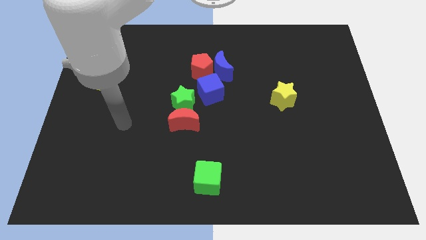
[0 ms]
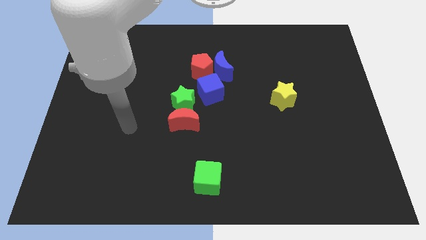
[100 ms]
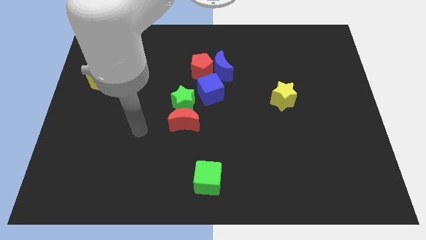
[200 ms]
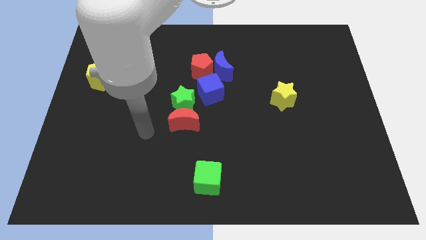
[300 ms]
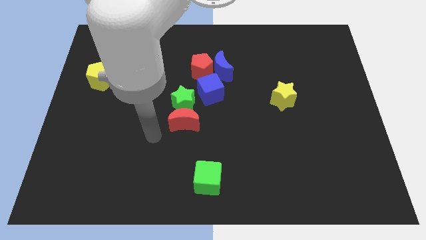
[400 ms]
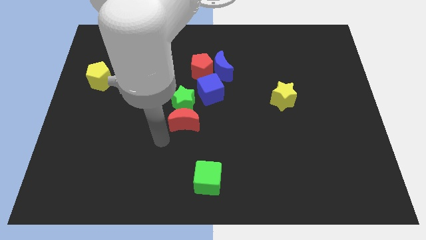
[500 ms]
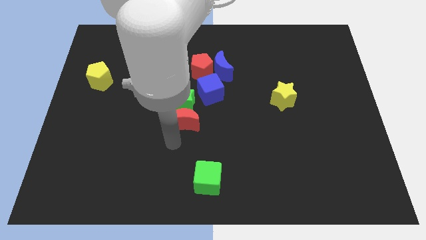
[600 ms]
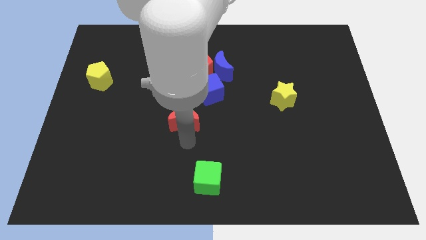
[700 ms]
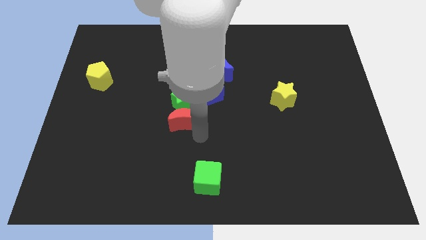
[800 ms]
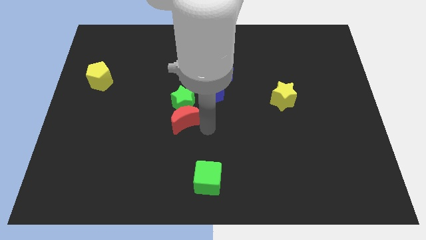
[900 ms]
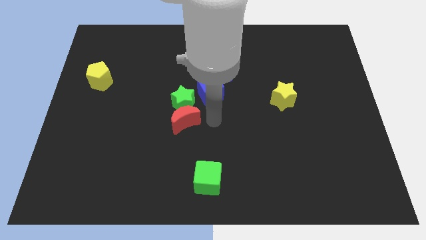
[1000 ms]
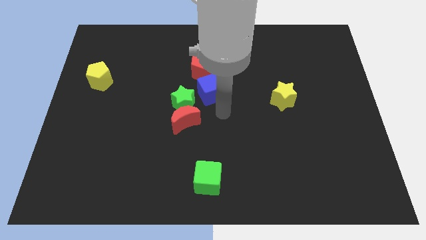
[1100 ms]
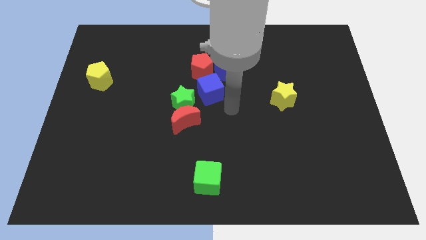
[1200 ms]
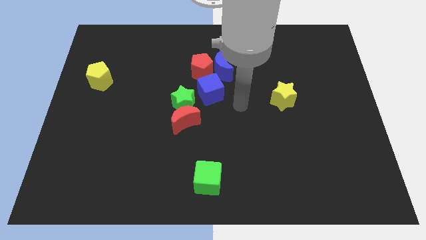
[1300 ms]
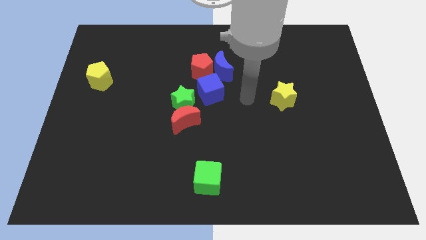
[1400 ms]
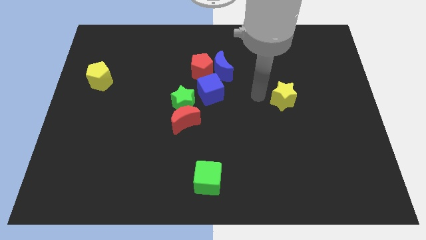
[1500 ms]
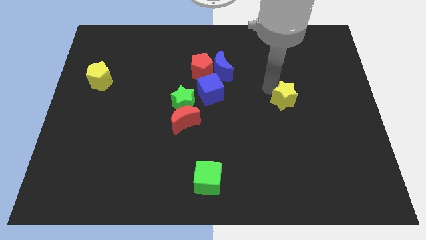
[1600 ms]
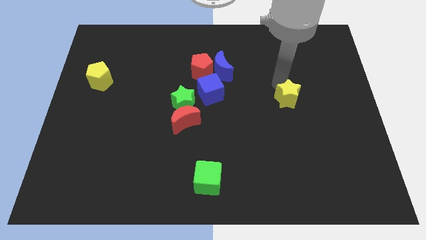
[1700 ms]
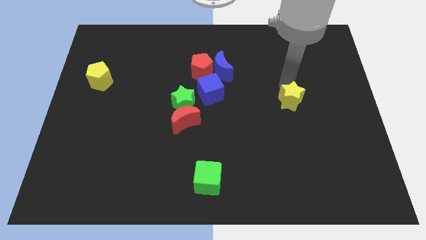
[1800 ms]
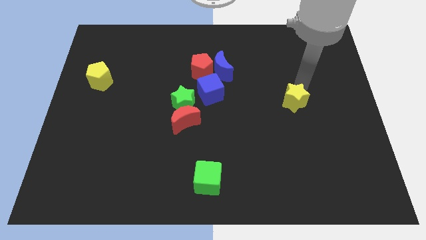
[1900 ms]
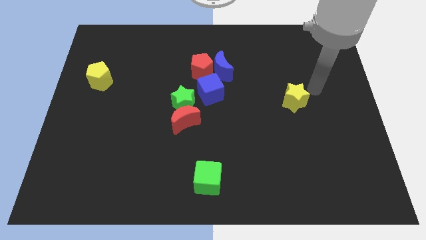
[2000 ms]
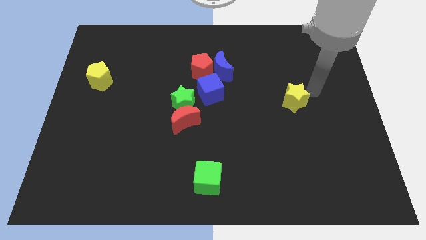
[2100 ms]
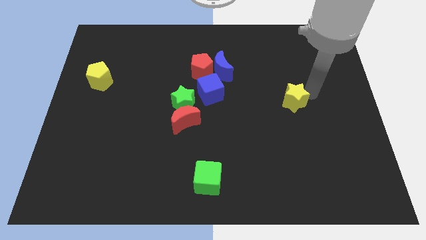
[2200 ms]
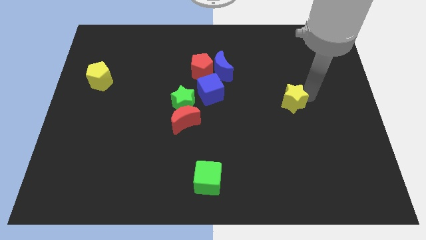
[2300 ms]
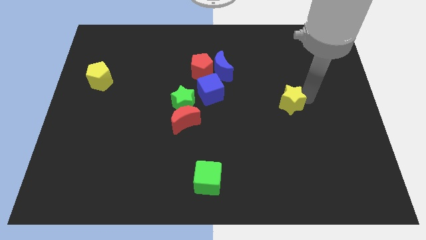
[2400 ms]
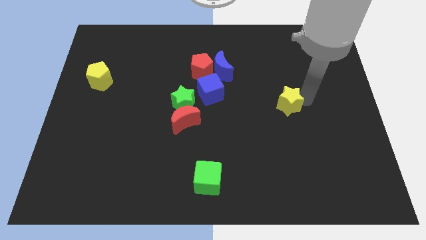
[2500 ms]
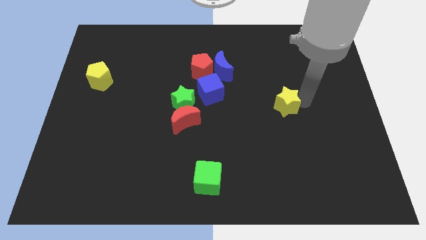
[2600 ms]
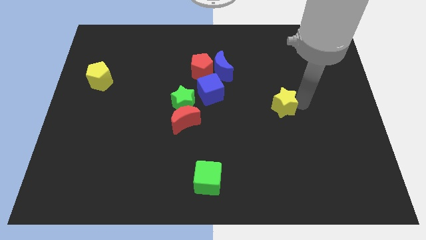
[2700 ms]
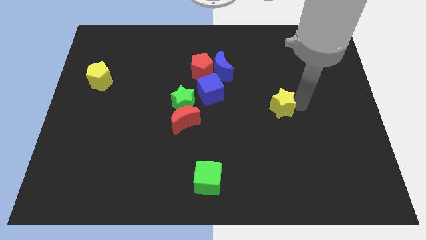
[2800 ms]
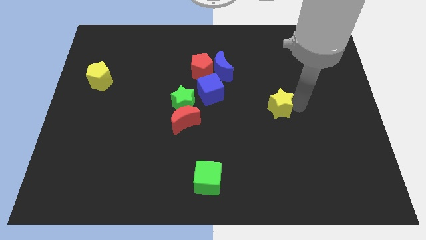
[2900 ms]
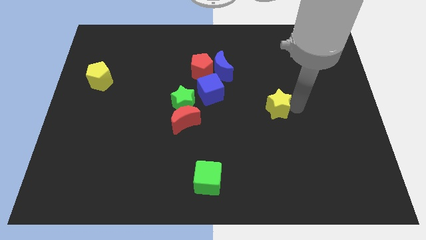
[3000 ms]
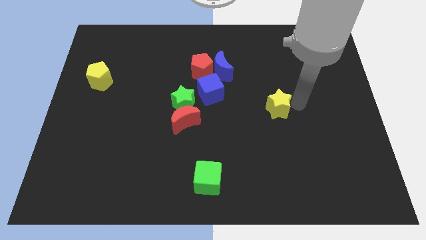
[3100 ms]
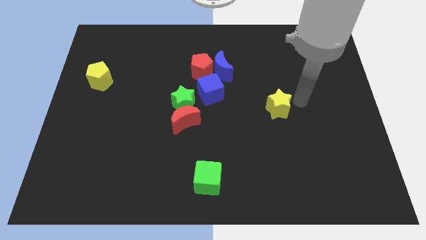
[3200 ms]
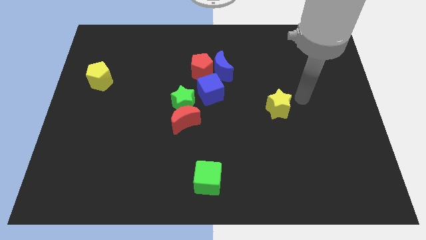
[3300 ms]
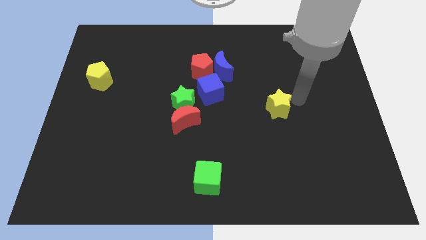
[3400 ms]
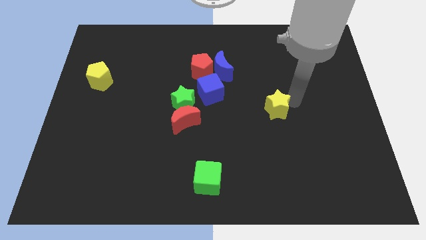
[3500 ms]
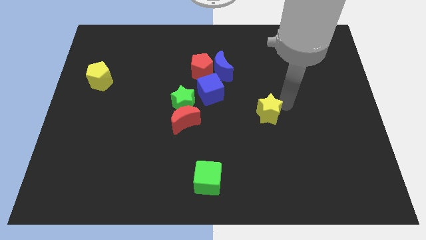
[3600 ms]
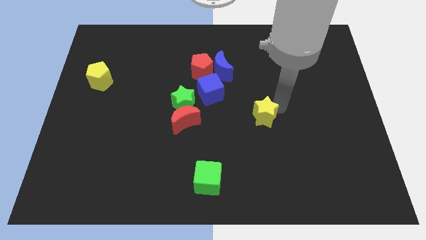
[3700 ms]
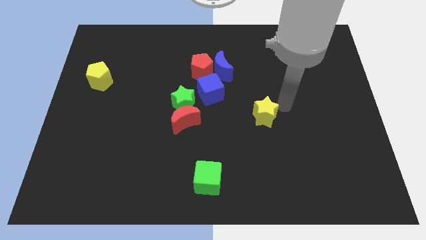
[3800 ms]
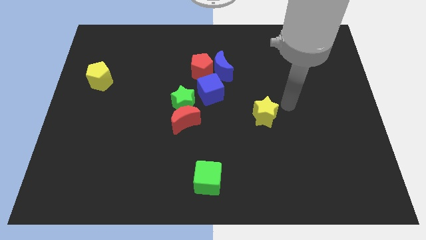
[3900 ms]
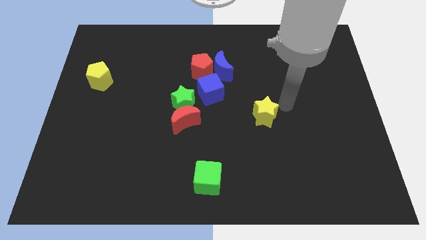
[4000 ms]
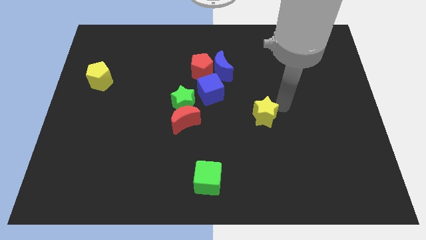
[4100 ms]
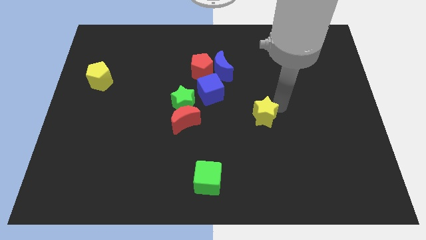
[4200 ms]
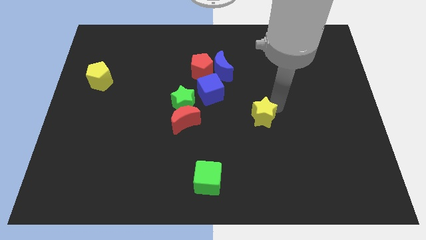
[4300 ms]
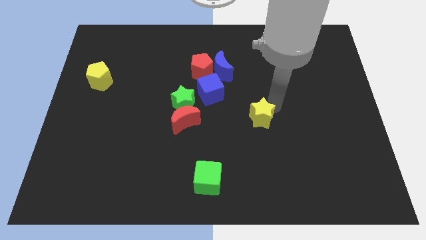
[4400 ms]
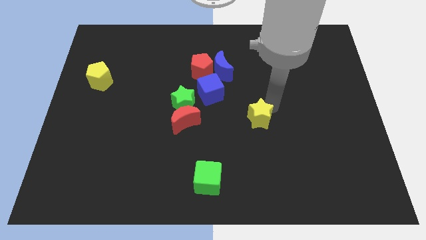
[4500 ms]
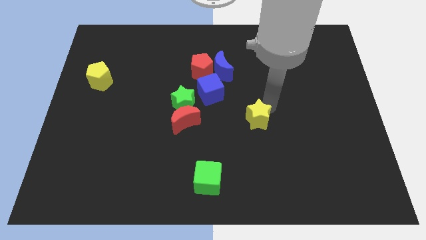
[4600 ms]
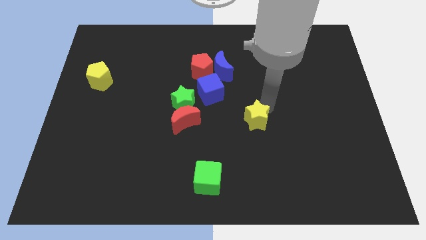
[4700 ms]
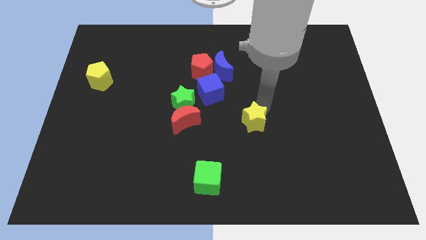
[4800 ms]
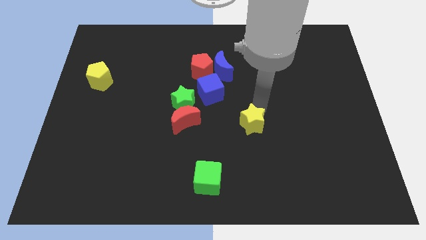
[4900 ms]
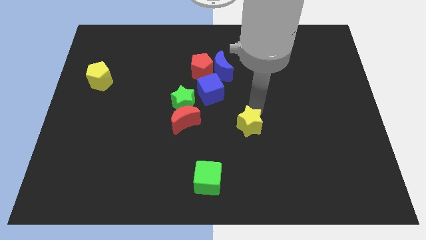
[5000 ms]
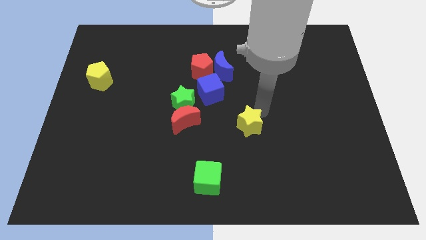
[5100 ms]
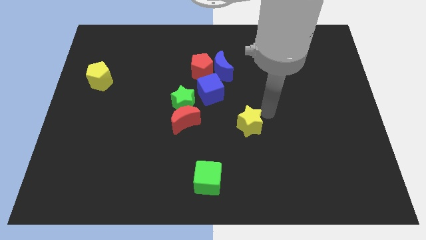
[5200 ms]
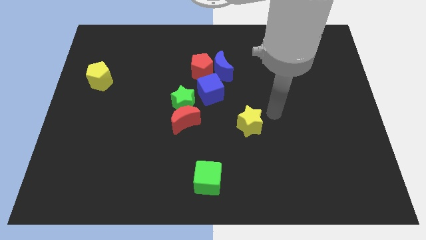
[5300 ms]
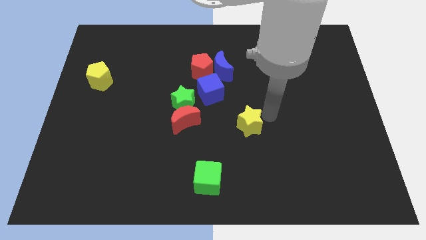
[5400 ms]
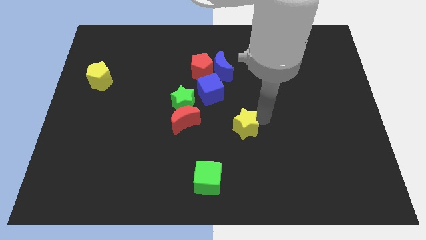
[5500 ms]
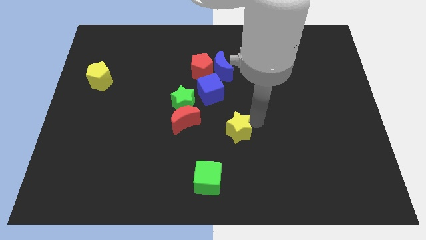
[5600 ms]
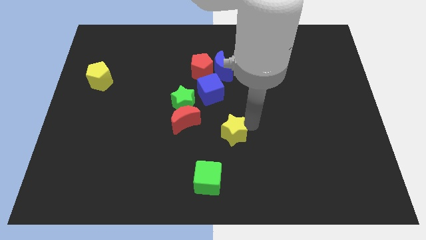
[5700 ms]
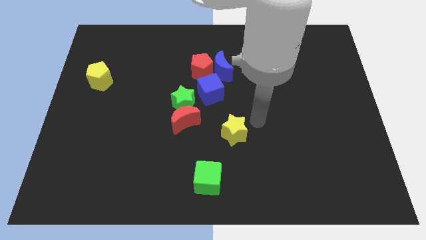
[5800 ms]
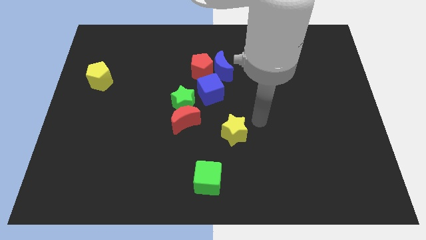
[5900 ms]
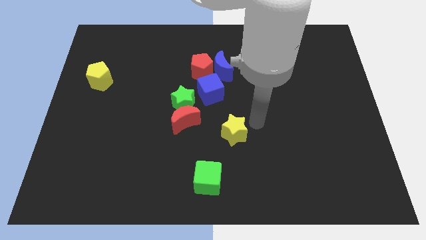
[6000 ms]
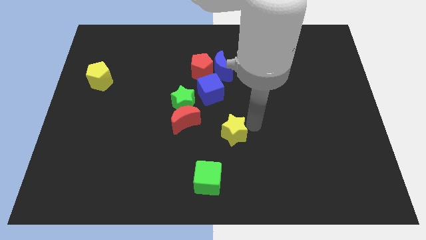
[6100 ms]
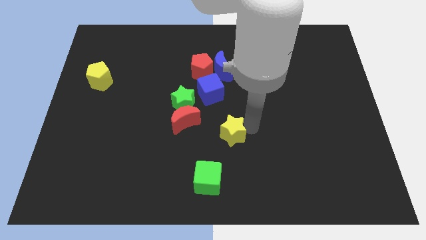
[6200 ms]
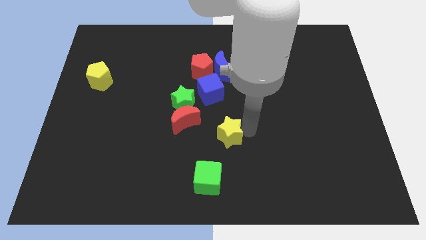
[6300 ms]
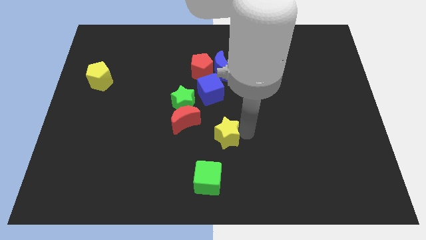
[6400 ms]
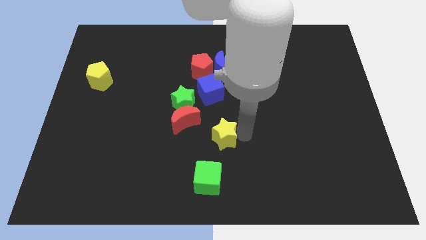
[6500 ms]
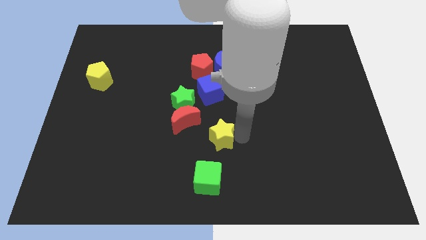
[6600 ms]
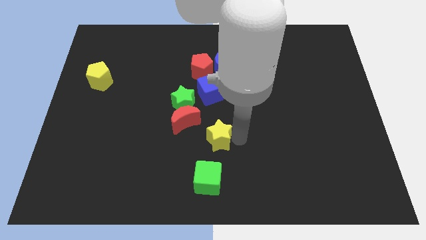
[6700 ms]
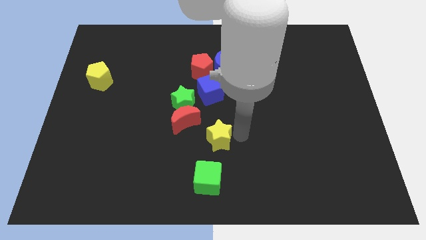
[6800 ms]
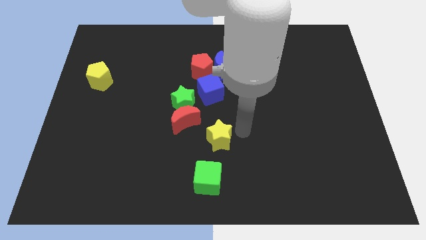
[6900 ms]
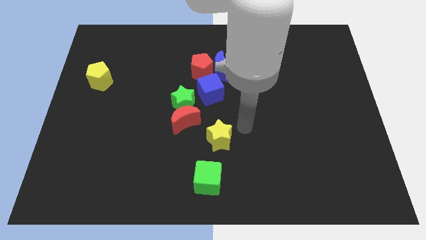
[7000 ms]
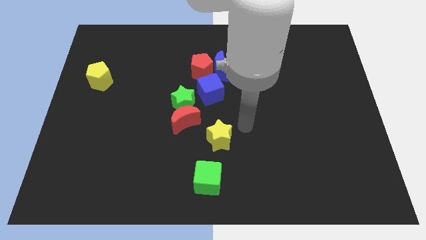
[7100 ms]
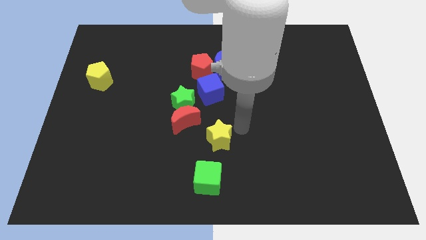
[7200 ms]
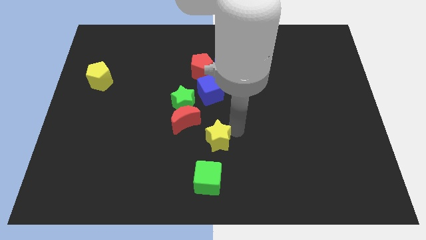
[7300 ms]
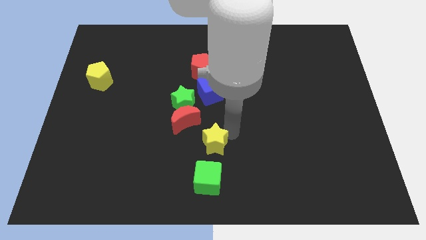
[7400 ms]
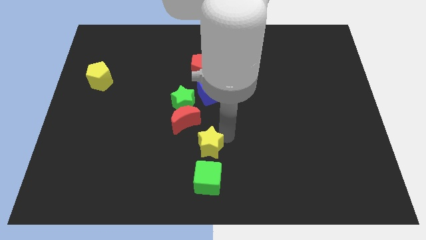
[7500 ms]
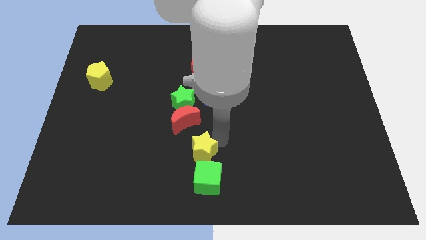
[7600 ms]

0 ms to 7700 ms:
push the yellow star to the top left of the green cube
